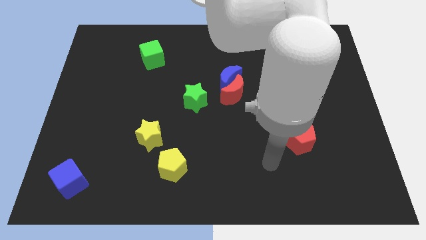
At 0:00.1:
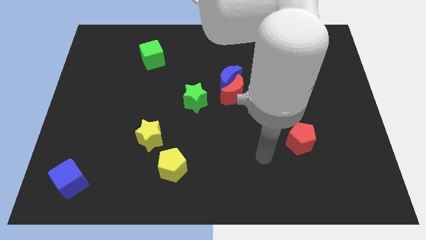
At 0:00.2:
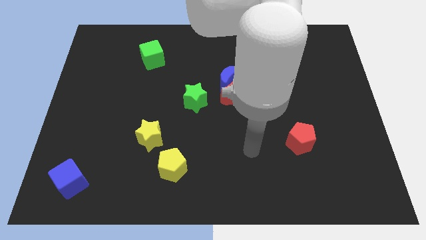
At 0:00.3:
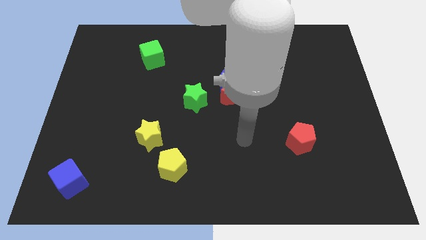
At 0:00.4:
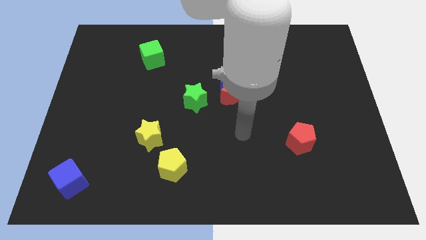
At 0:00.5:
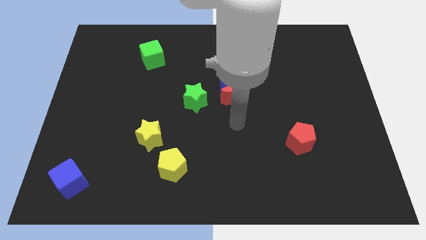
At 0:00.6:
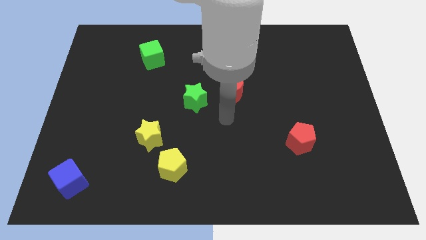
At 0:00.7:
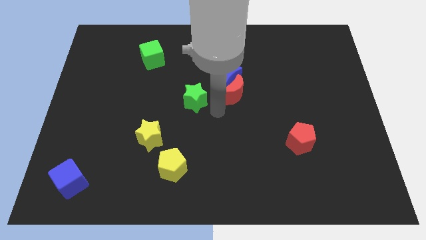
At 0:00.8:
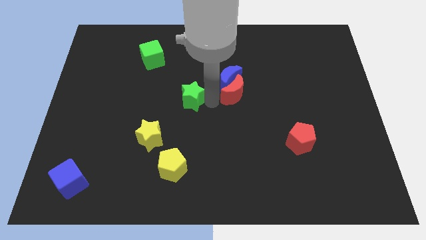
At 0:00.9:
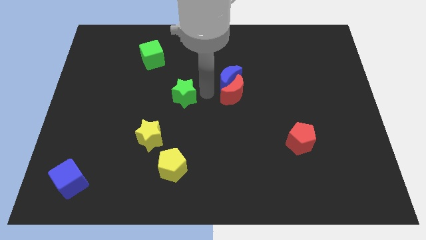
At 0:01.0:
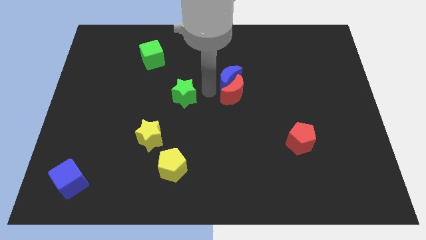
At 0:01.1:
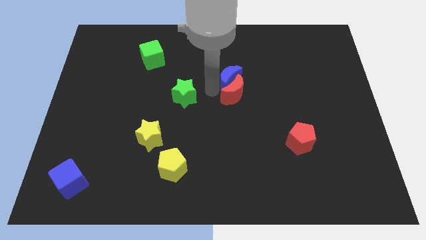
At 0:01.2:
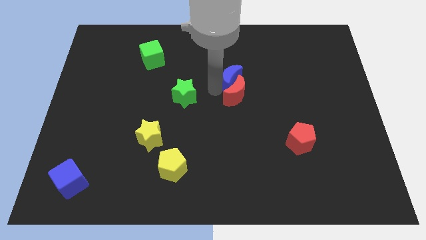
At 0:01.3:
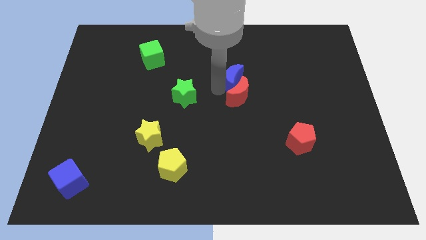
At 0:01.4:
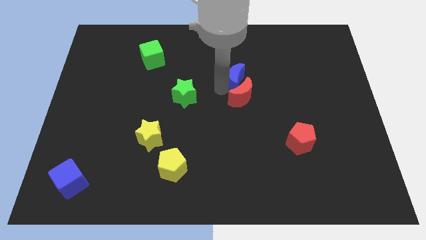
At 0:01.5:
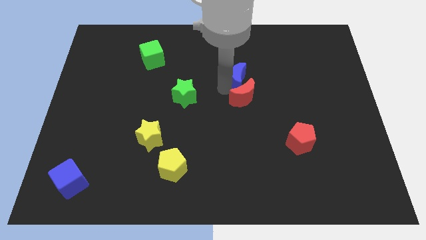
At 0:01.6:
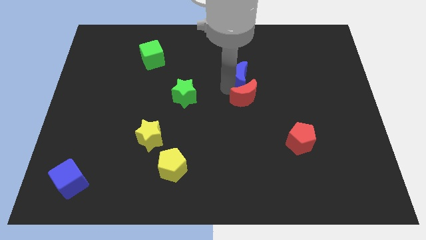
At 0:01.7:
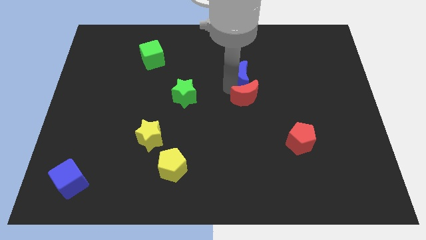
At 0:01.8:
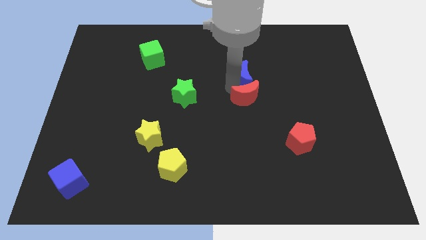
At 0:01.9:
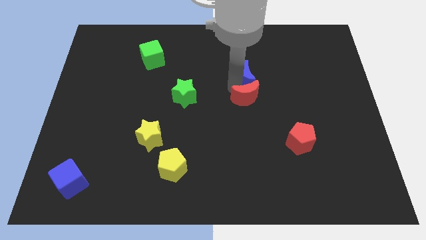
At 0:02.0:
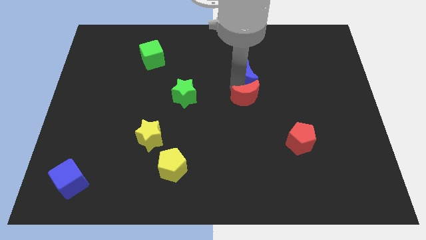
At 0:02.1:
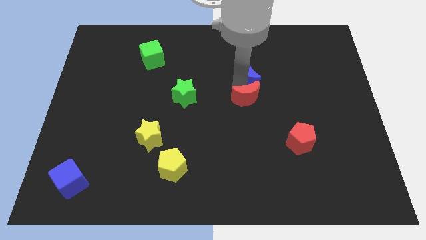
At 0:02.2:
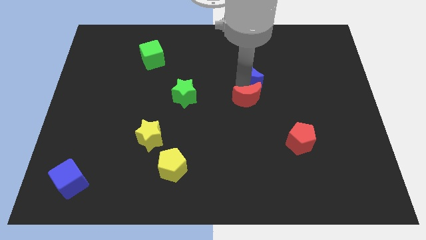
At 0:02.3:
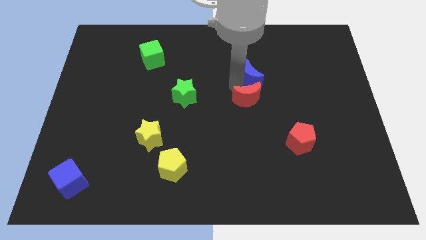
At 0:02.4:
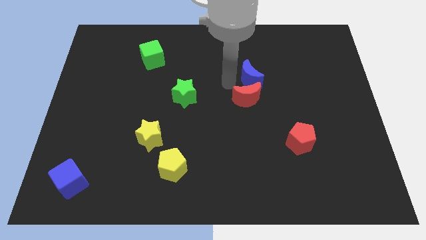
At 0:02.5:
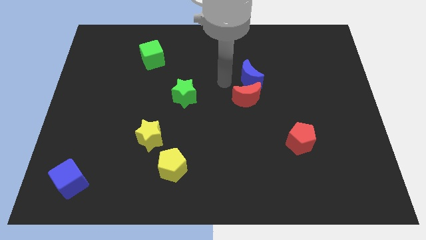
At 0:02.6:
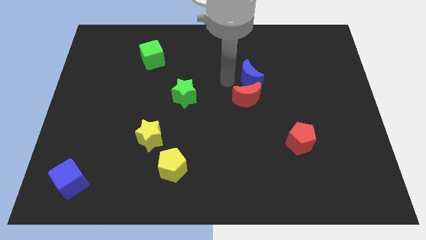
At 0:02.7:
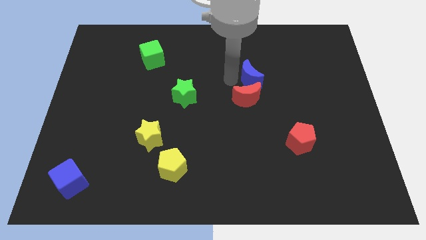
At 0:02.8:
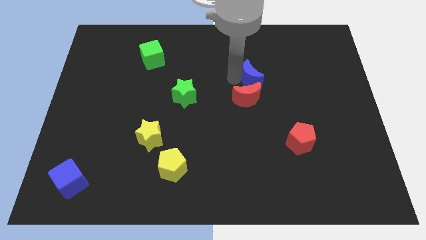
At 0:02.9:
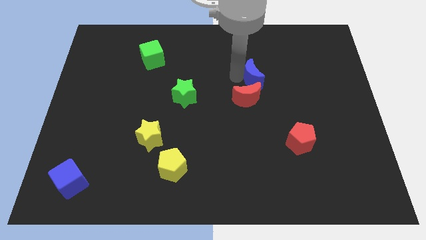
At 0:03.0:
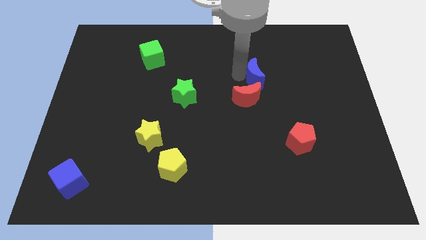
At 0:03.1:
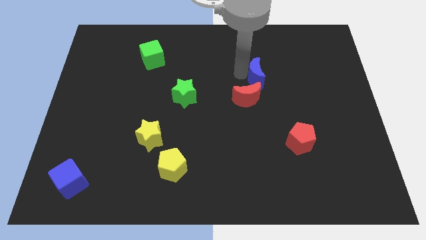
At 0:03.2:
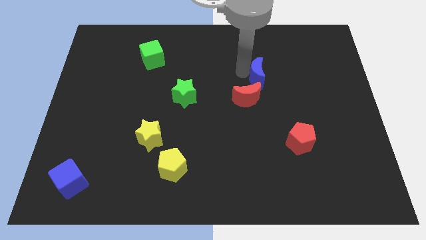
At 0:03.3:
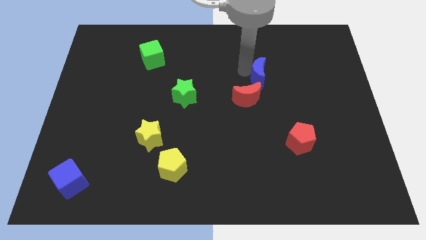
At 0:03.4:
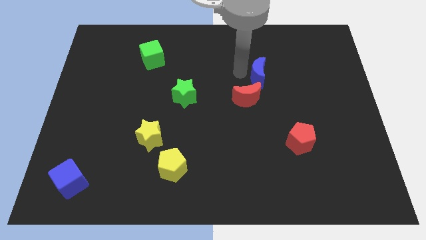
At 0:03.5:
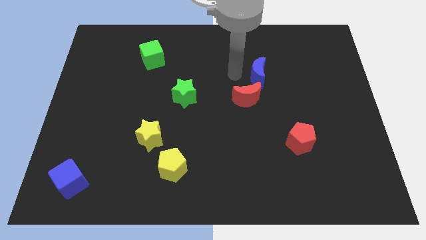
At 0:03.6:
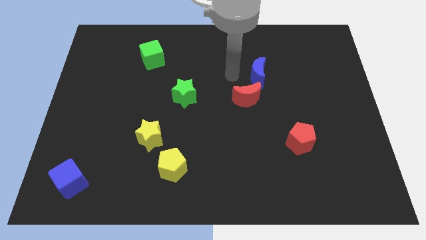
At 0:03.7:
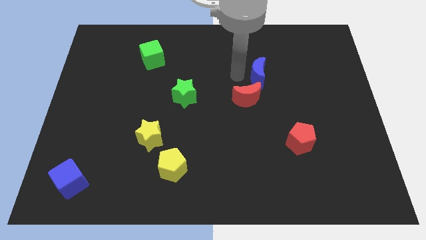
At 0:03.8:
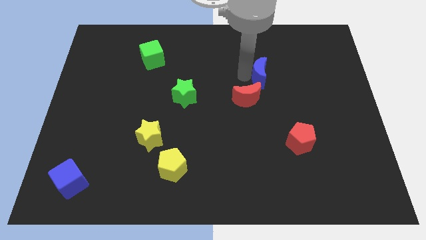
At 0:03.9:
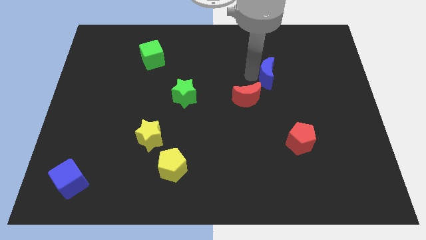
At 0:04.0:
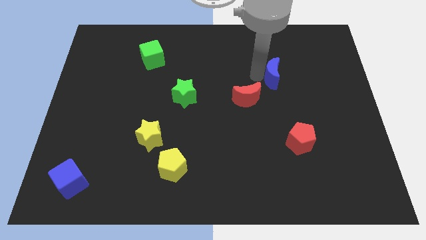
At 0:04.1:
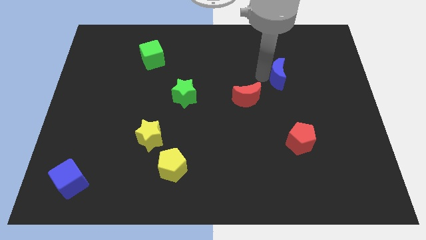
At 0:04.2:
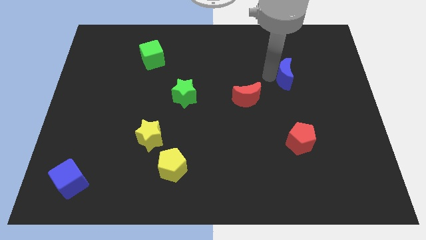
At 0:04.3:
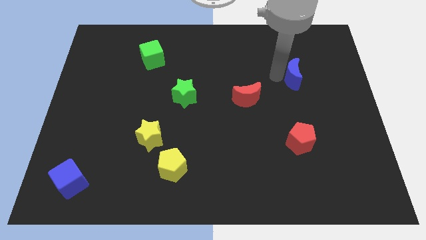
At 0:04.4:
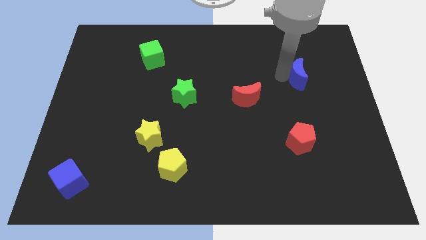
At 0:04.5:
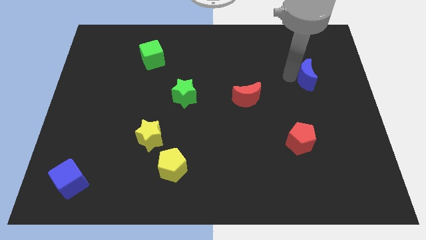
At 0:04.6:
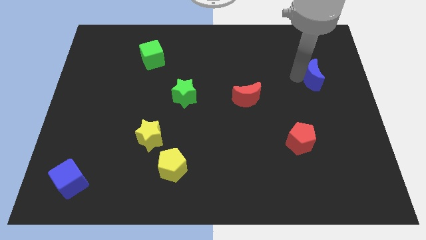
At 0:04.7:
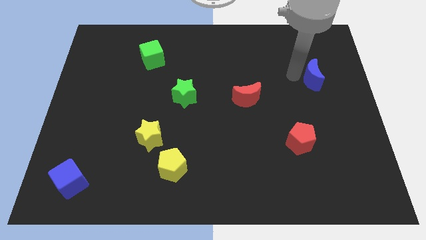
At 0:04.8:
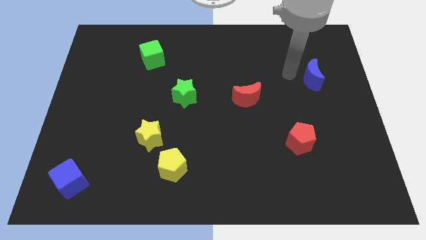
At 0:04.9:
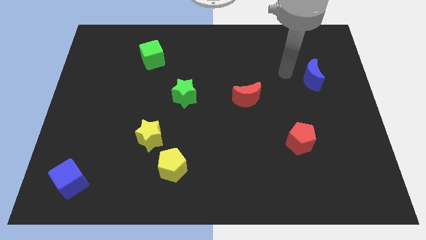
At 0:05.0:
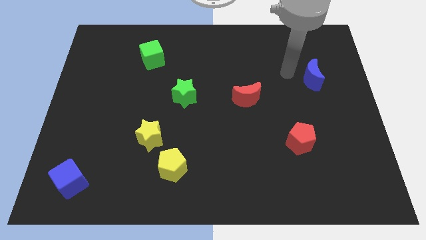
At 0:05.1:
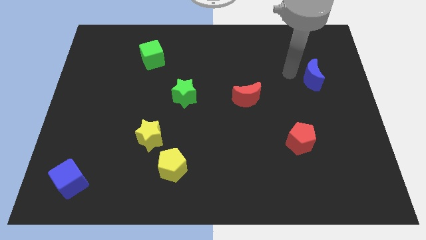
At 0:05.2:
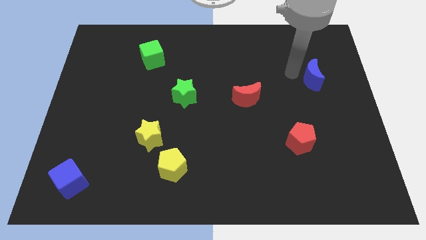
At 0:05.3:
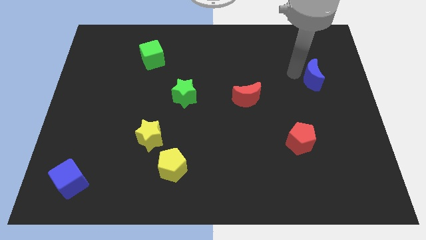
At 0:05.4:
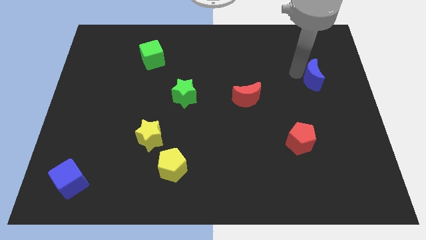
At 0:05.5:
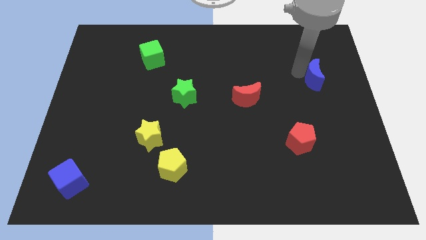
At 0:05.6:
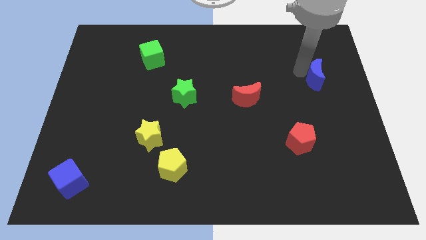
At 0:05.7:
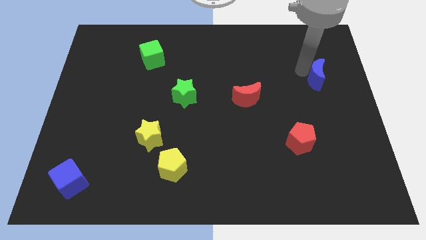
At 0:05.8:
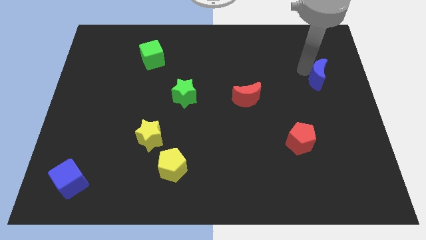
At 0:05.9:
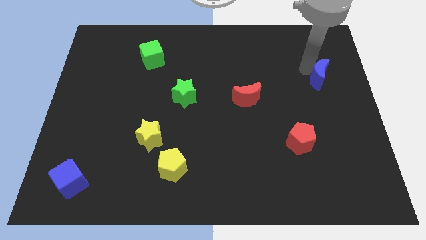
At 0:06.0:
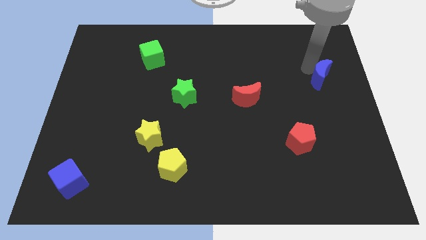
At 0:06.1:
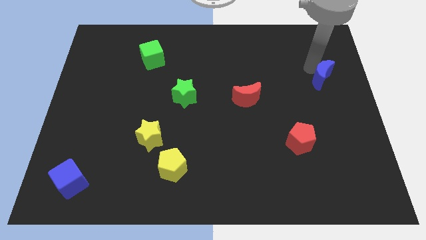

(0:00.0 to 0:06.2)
move the blue moon to the right side
